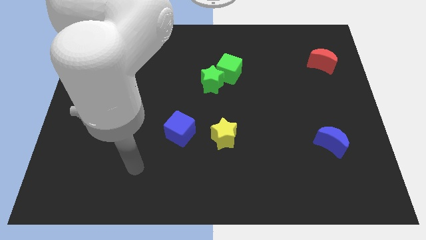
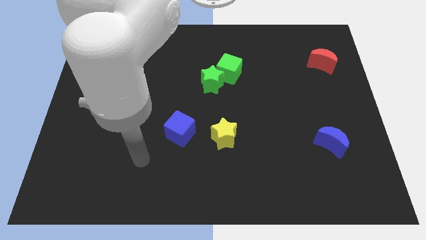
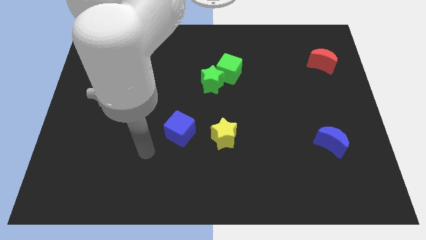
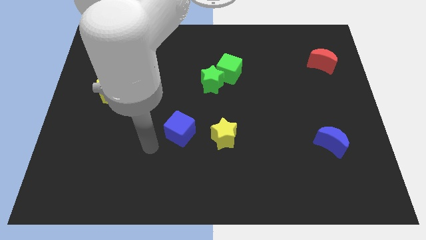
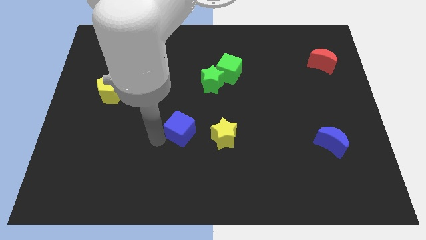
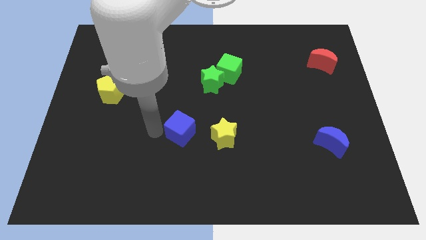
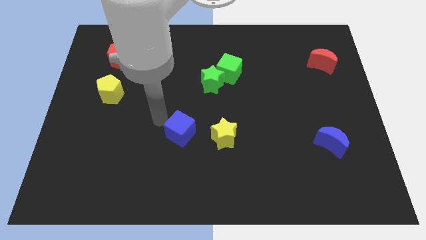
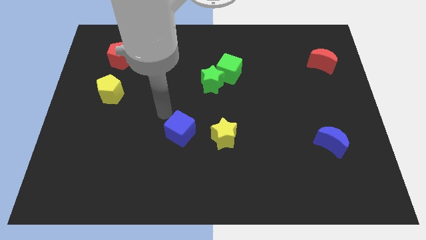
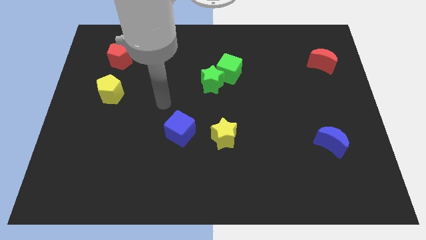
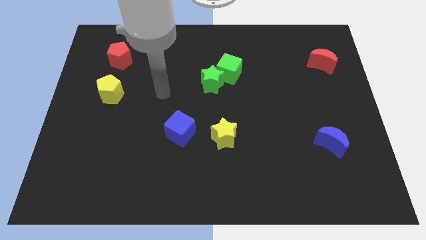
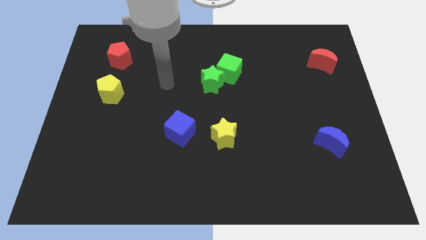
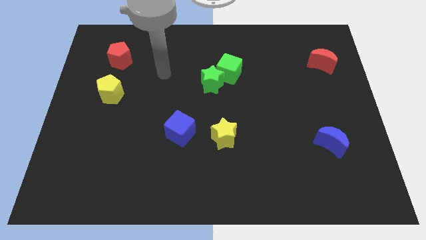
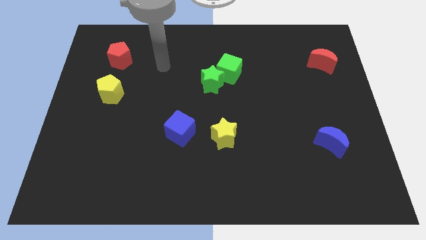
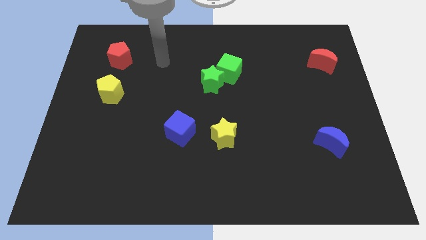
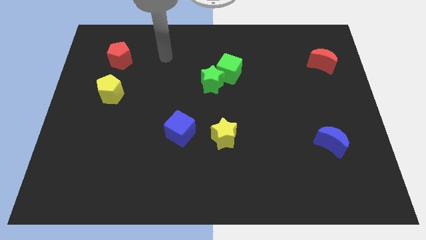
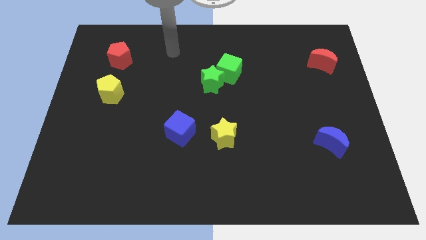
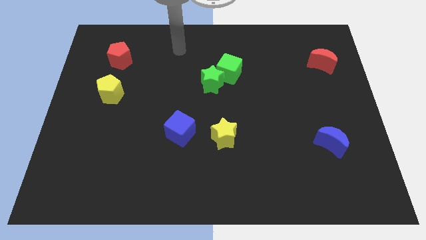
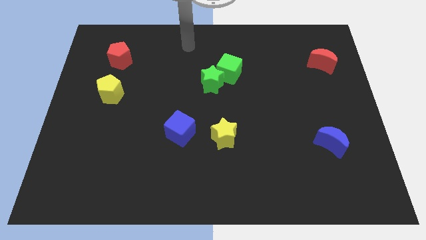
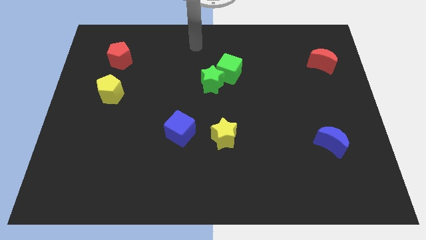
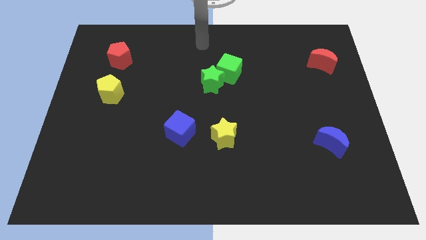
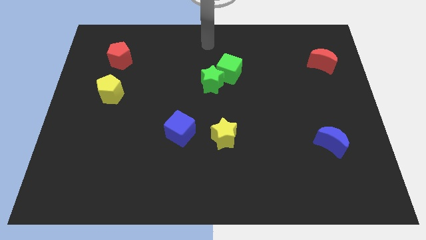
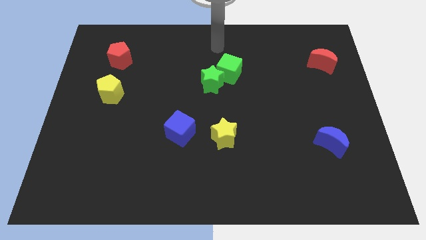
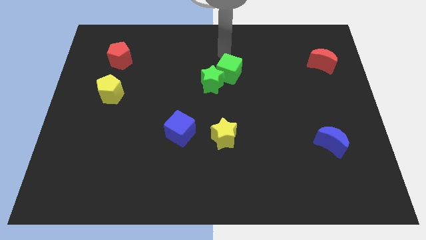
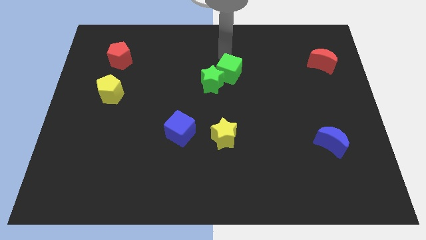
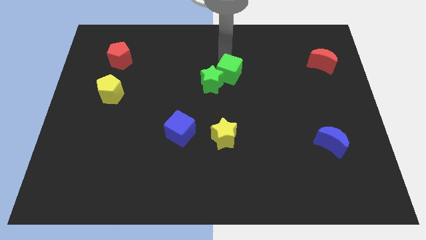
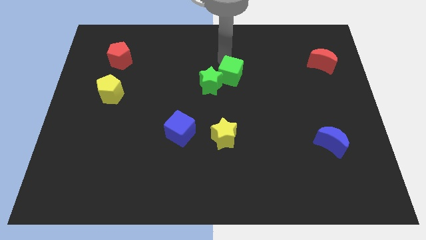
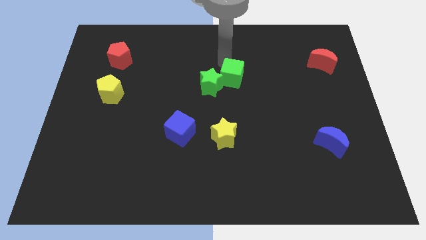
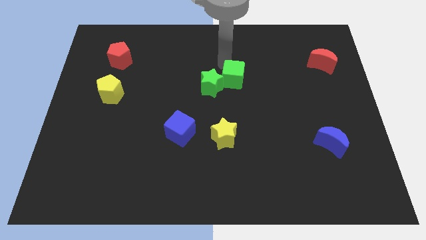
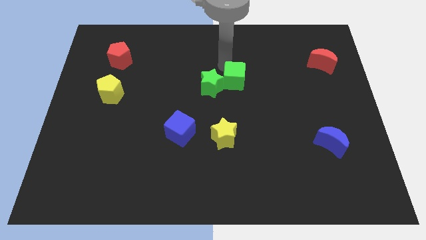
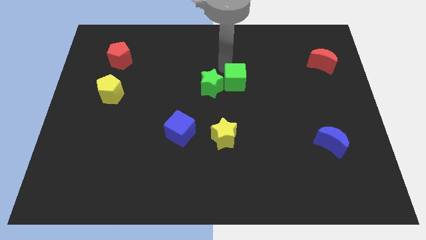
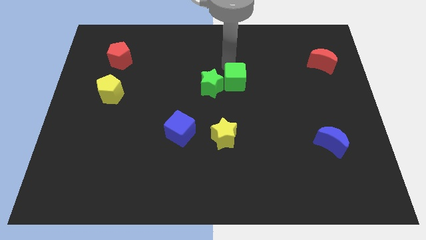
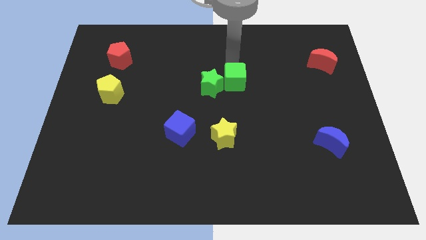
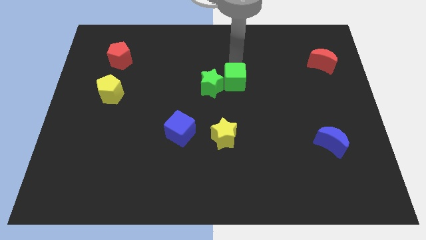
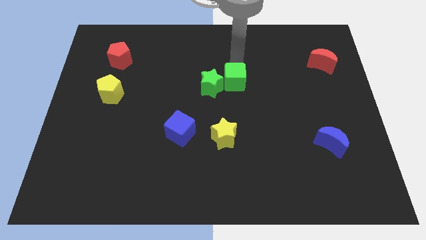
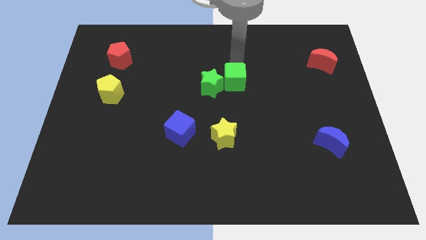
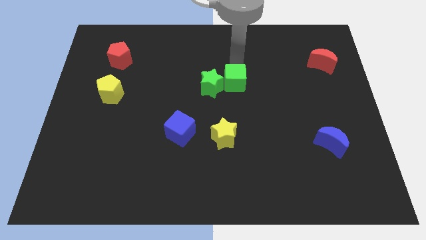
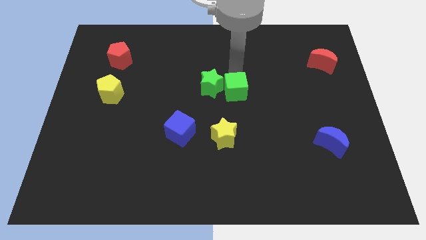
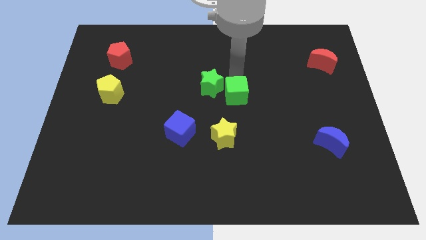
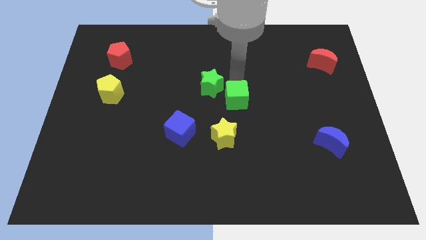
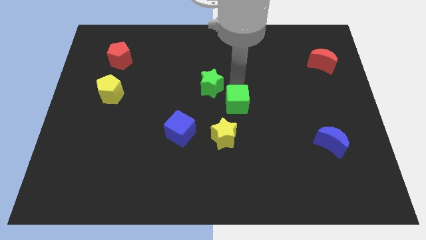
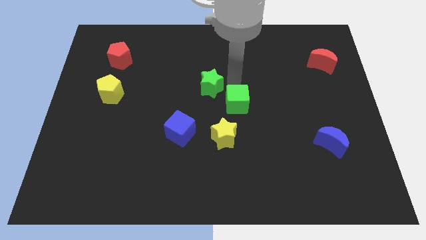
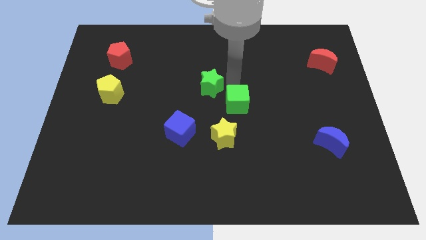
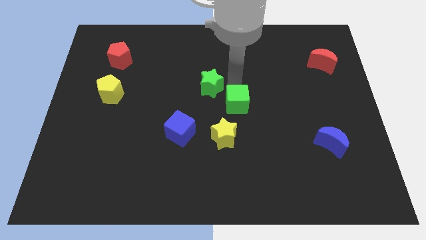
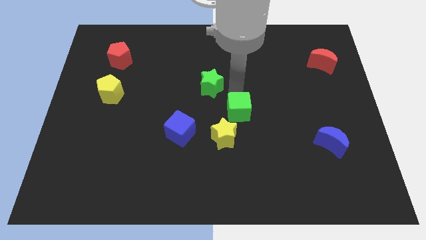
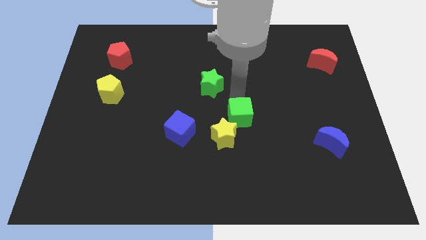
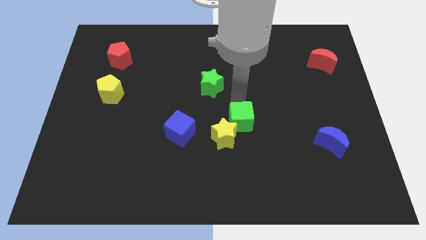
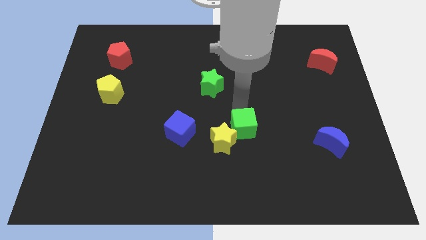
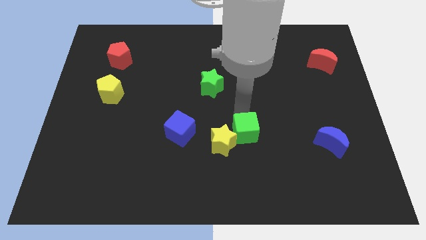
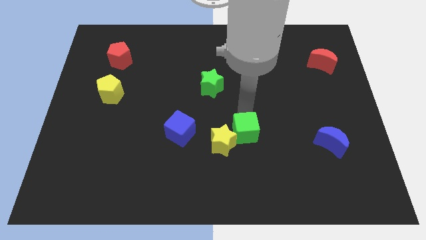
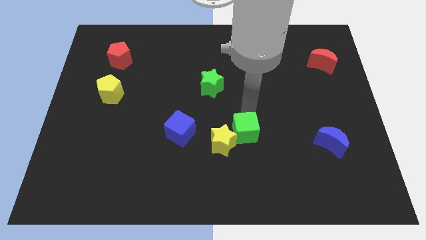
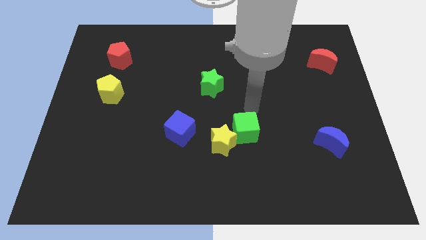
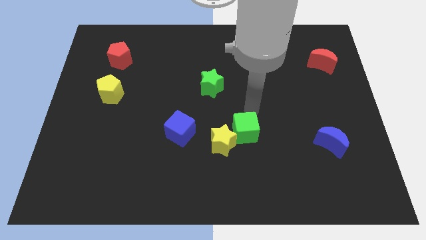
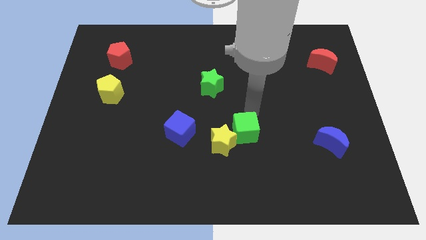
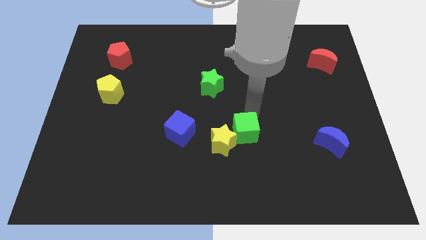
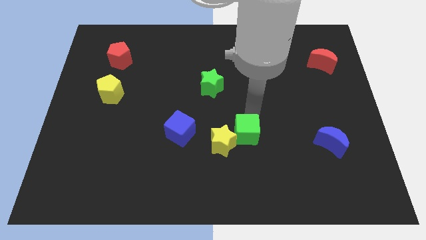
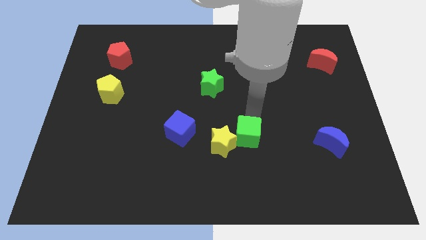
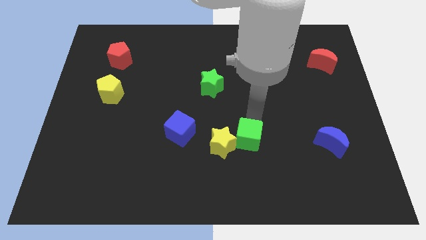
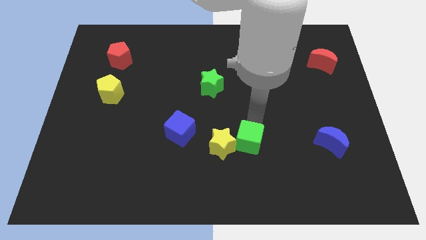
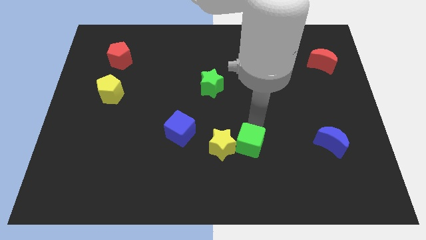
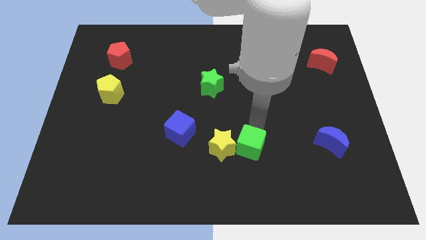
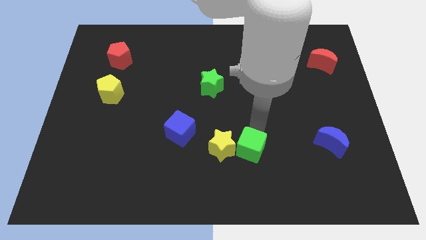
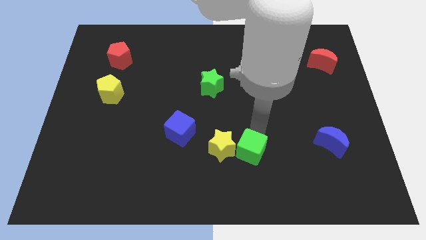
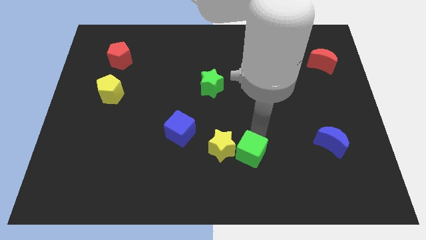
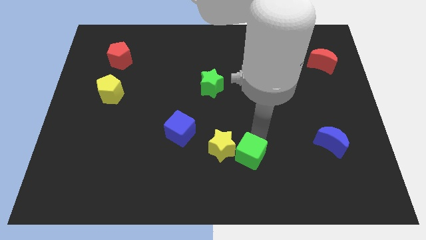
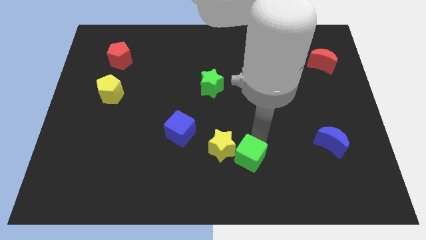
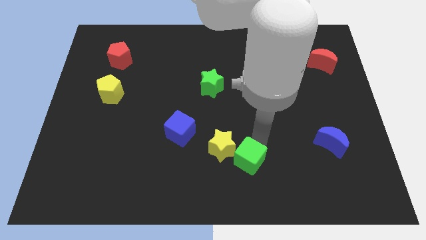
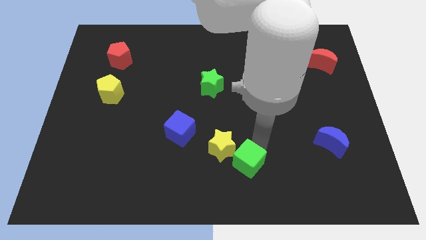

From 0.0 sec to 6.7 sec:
push the green cube to the bottom
